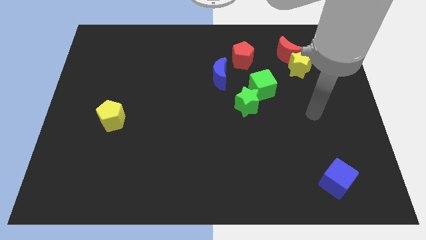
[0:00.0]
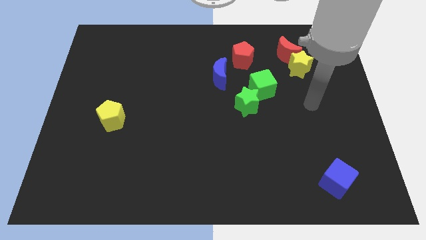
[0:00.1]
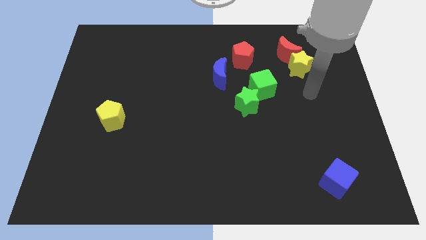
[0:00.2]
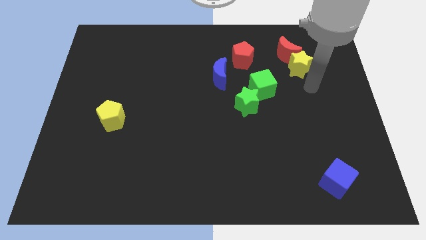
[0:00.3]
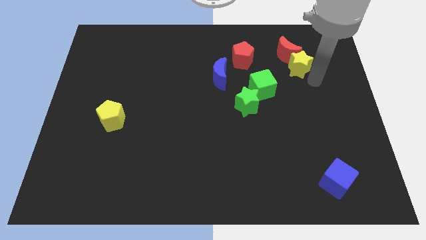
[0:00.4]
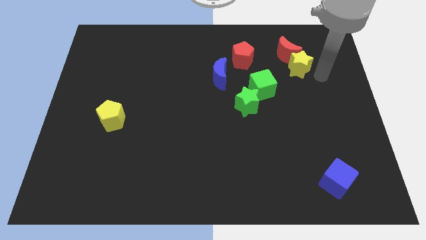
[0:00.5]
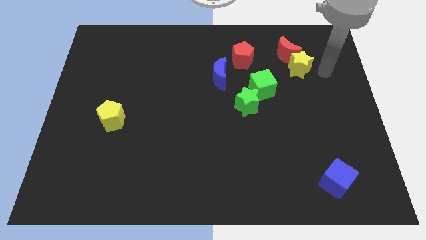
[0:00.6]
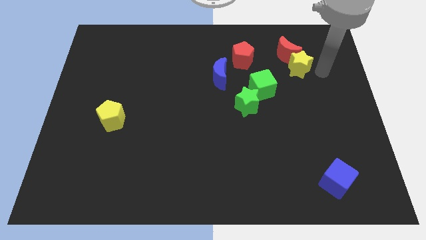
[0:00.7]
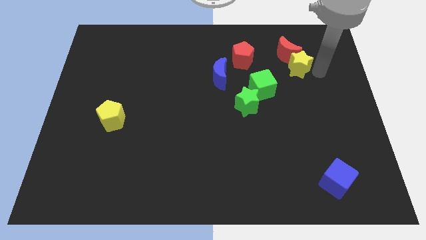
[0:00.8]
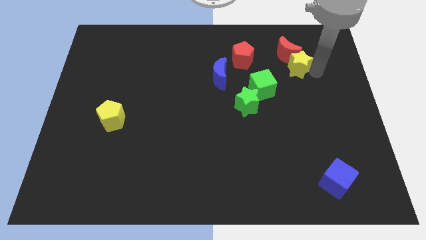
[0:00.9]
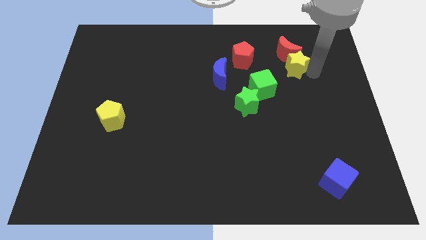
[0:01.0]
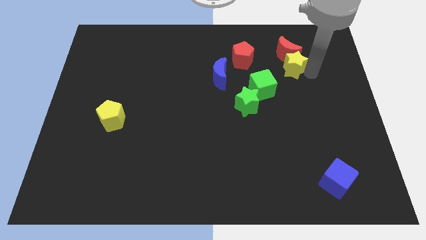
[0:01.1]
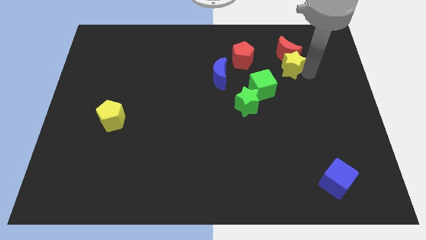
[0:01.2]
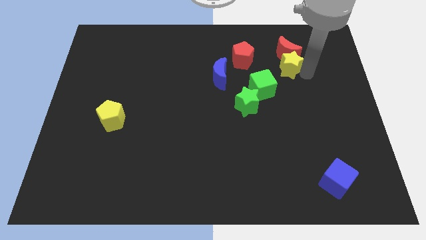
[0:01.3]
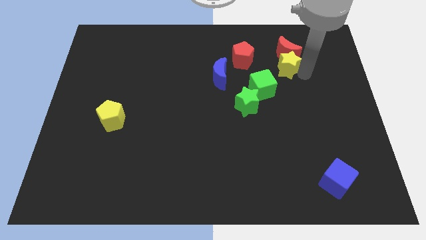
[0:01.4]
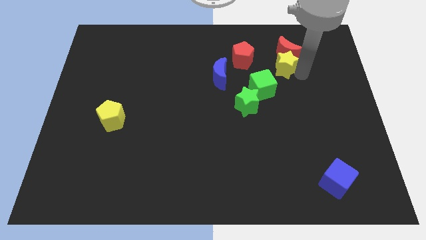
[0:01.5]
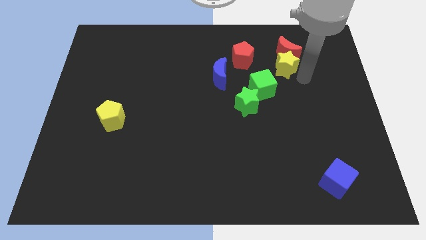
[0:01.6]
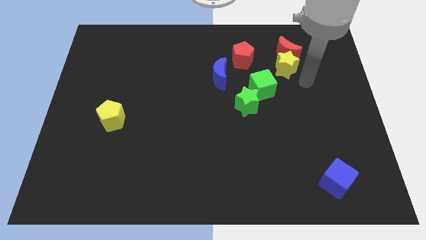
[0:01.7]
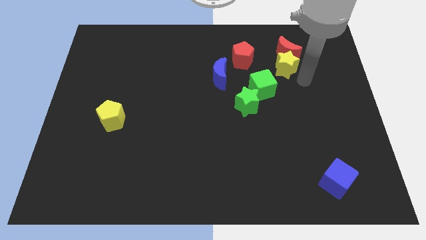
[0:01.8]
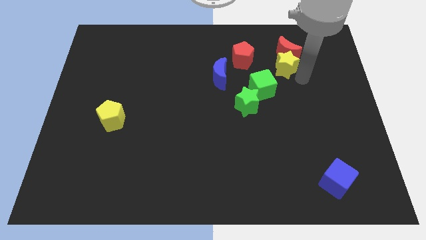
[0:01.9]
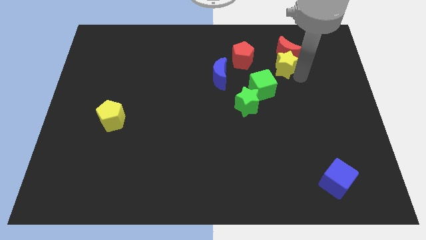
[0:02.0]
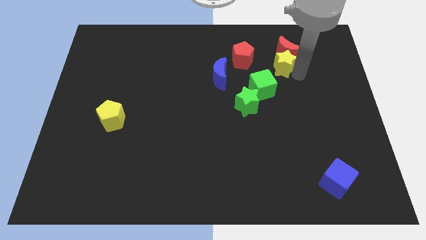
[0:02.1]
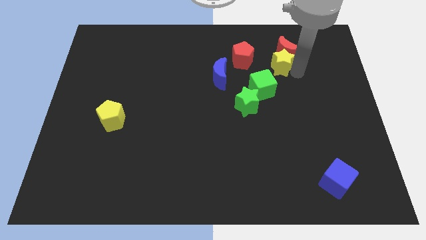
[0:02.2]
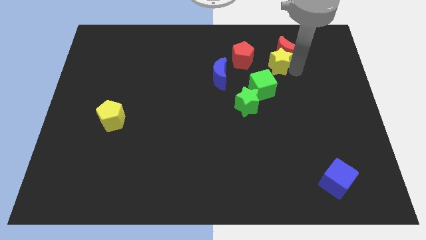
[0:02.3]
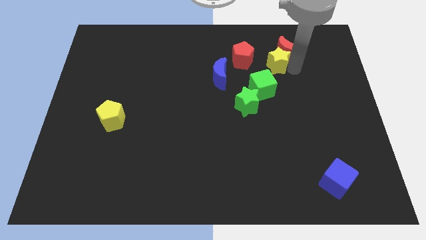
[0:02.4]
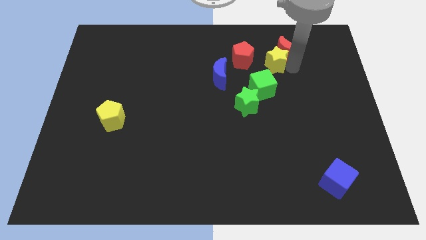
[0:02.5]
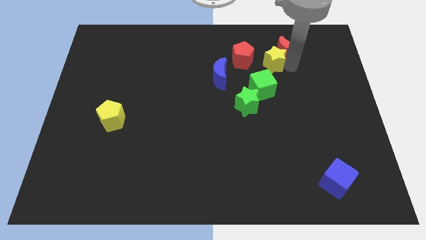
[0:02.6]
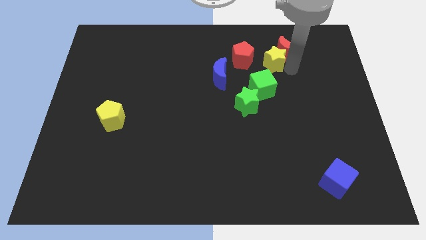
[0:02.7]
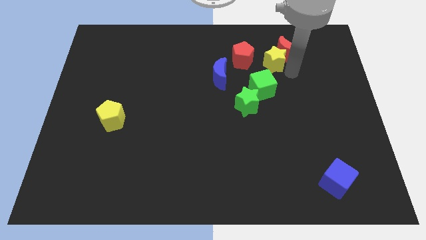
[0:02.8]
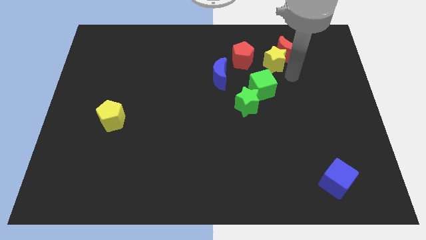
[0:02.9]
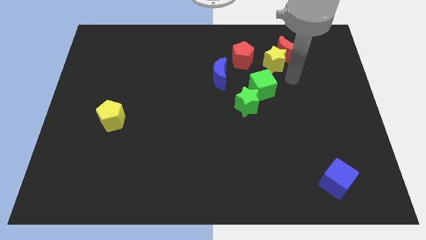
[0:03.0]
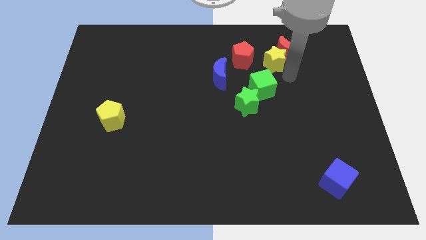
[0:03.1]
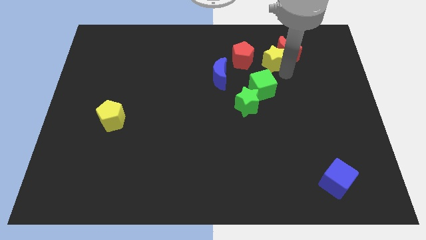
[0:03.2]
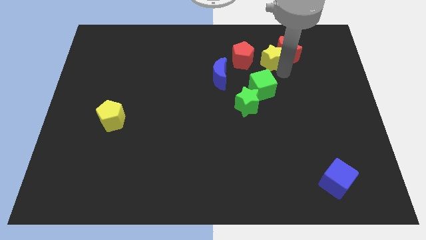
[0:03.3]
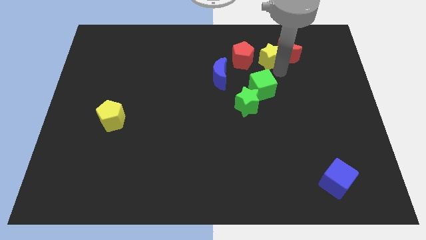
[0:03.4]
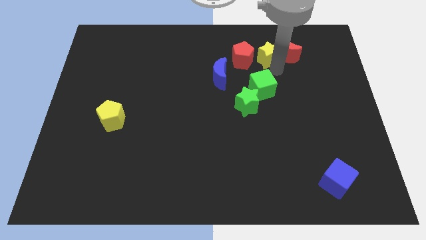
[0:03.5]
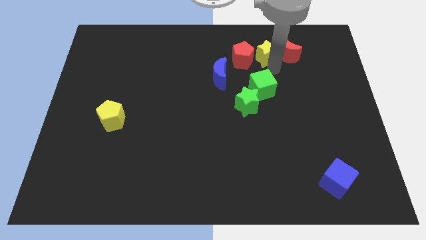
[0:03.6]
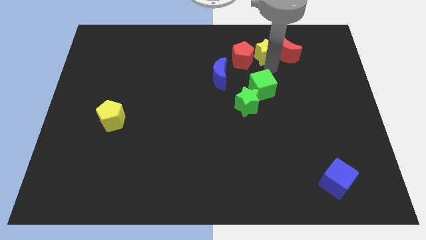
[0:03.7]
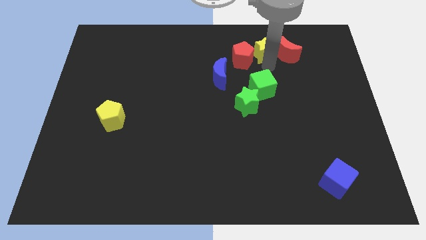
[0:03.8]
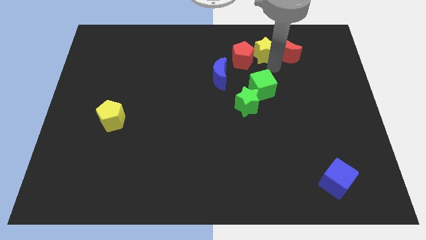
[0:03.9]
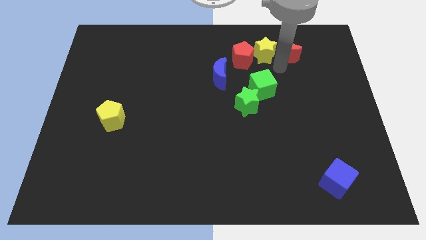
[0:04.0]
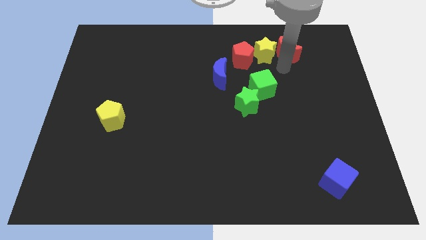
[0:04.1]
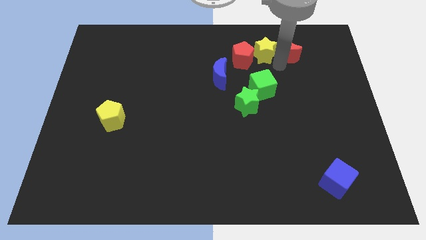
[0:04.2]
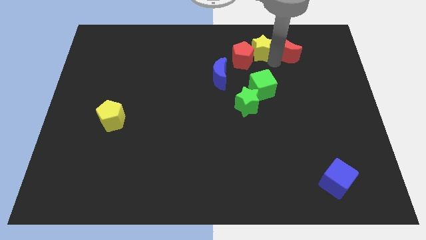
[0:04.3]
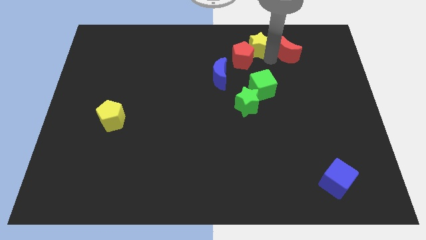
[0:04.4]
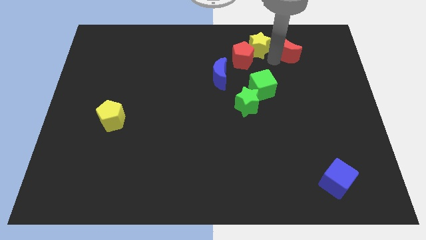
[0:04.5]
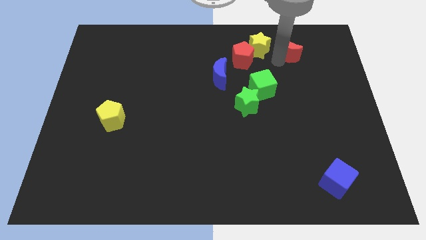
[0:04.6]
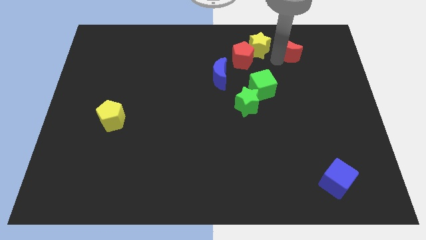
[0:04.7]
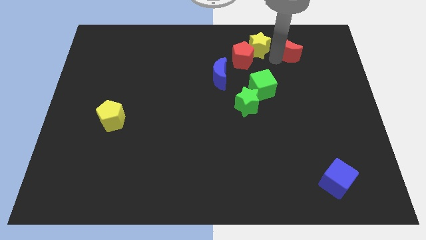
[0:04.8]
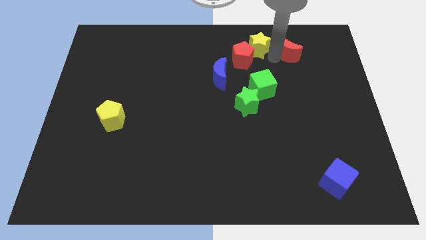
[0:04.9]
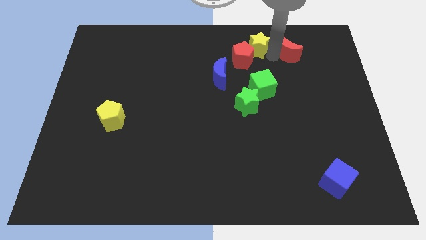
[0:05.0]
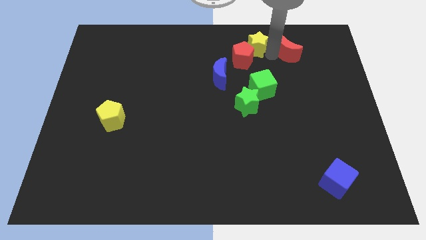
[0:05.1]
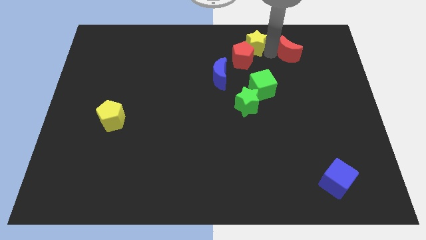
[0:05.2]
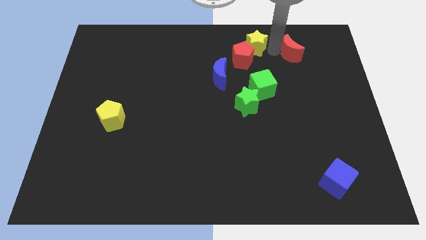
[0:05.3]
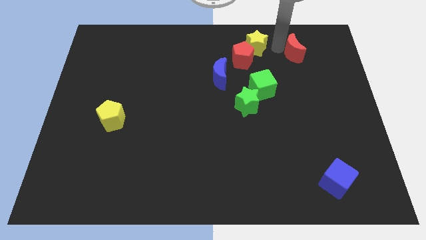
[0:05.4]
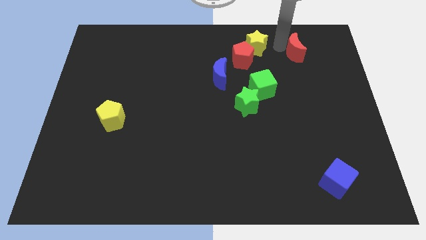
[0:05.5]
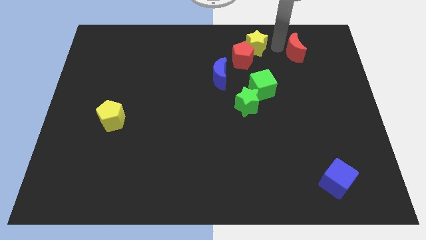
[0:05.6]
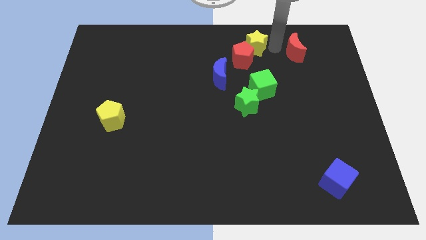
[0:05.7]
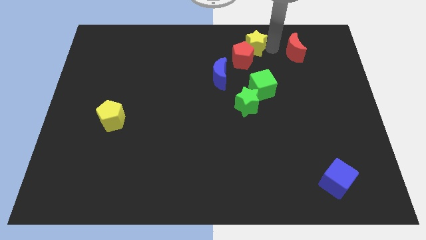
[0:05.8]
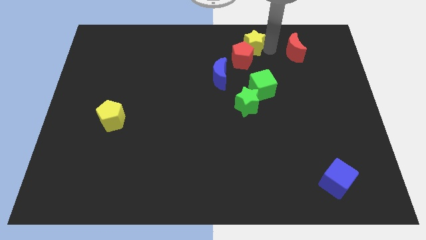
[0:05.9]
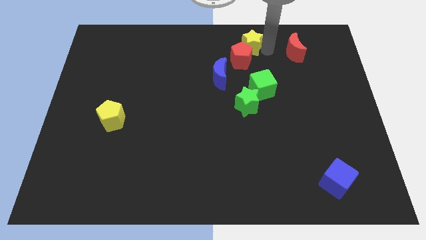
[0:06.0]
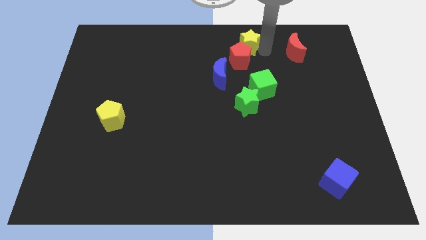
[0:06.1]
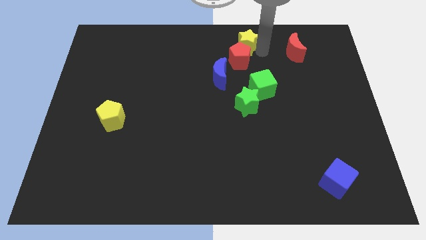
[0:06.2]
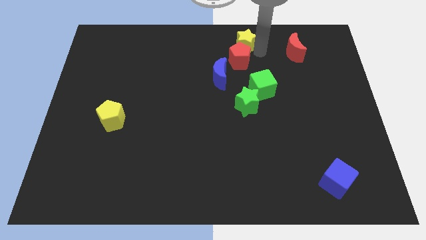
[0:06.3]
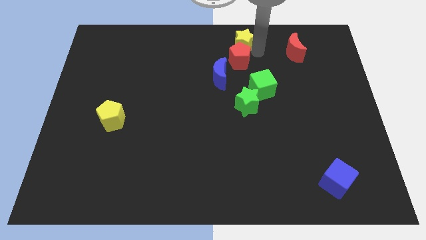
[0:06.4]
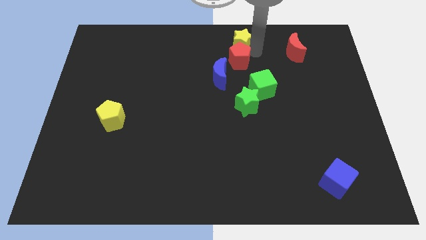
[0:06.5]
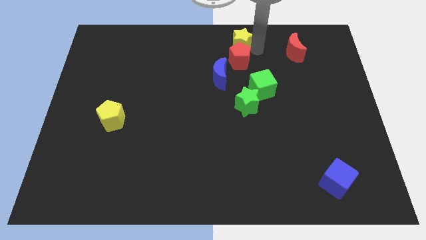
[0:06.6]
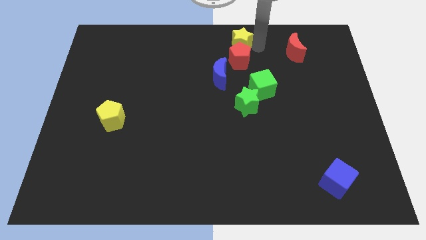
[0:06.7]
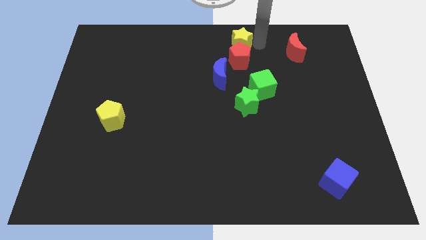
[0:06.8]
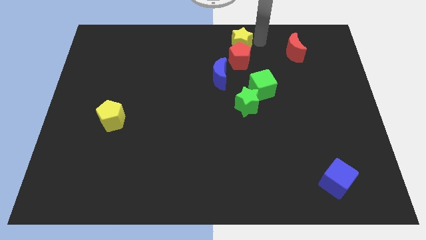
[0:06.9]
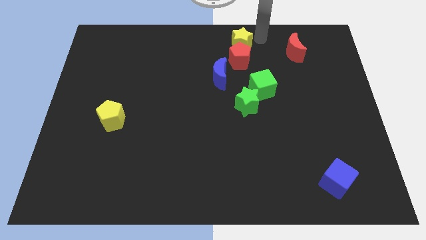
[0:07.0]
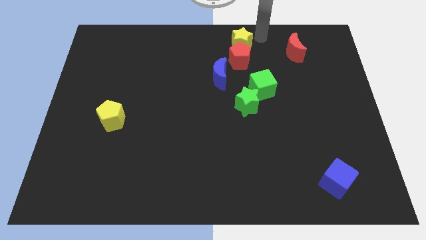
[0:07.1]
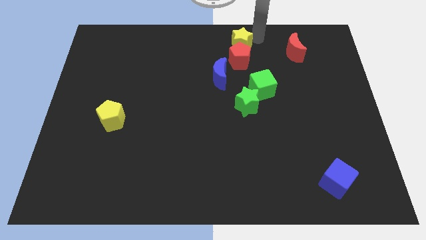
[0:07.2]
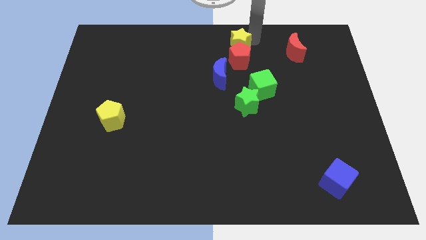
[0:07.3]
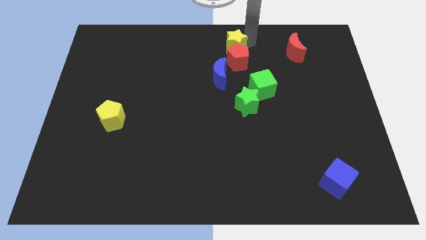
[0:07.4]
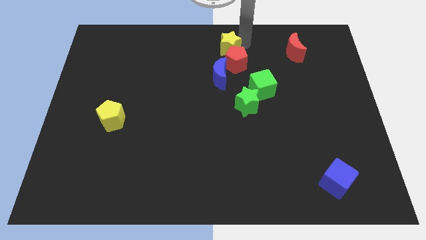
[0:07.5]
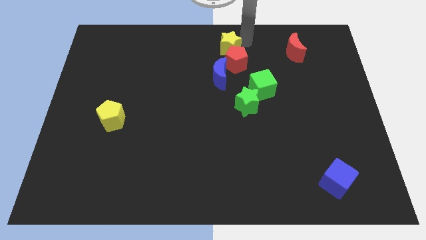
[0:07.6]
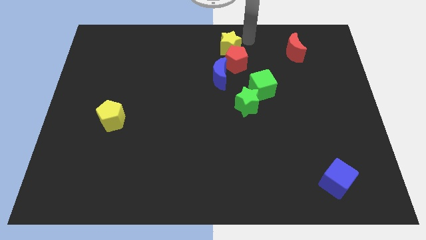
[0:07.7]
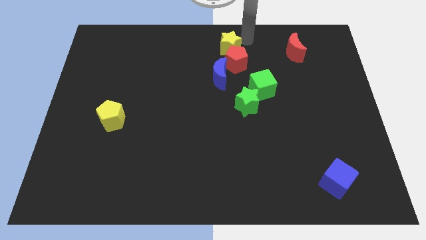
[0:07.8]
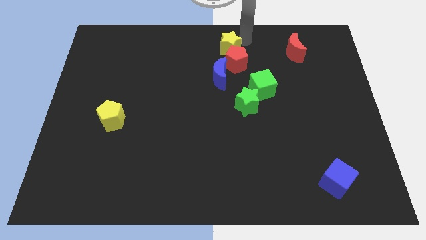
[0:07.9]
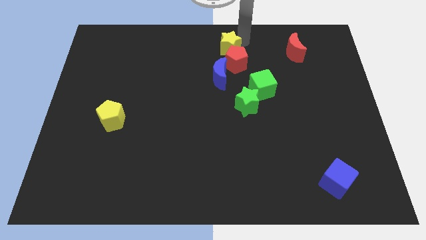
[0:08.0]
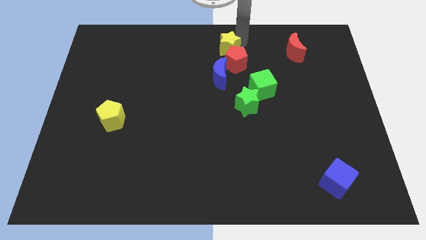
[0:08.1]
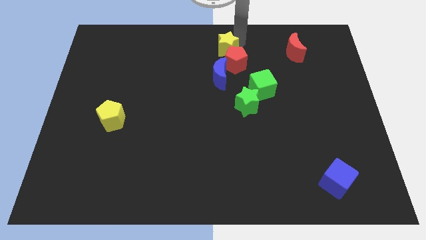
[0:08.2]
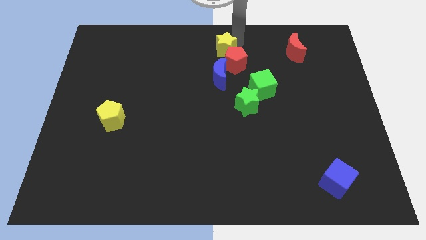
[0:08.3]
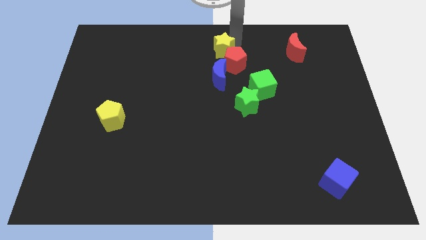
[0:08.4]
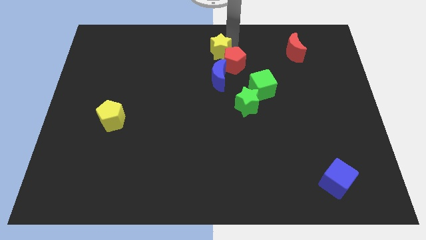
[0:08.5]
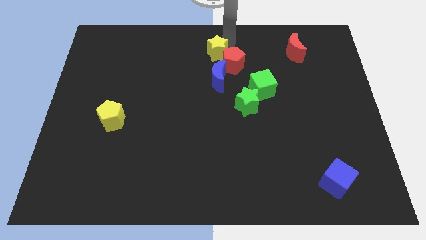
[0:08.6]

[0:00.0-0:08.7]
put the yellow star to the left of the red pentagon
